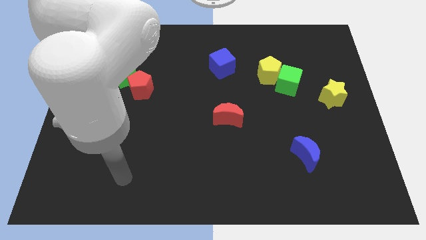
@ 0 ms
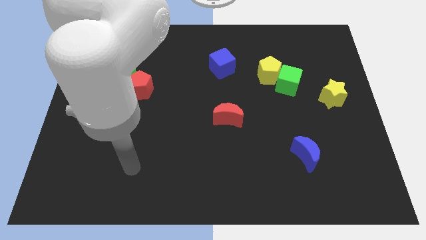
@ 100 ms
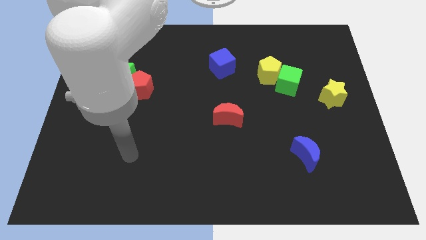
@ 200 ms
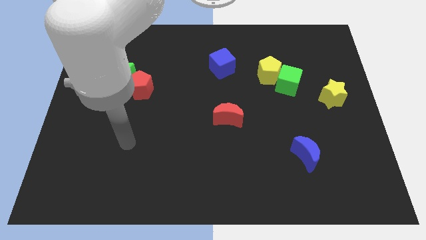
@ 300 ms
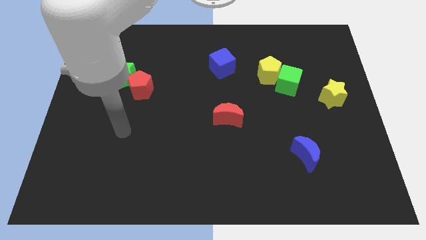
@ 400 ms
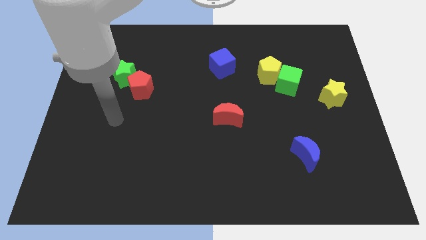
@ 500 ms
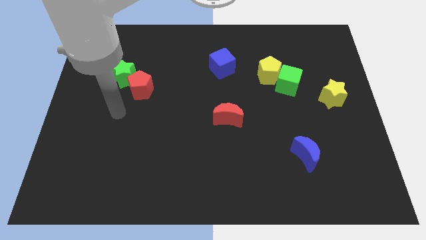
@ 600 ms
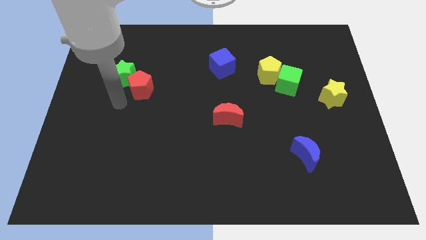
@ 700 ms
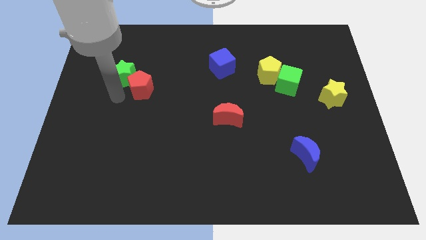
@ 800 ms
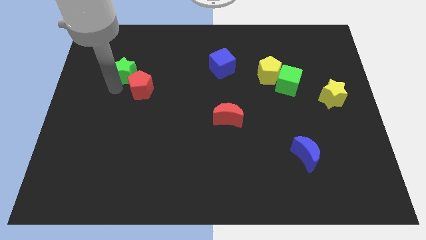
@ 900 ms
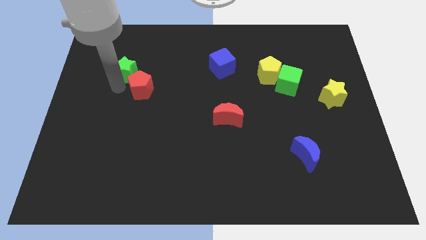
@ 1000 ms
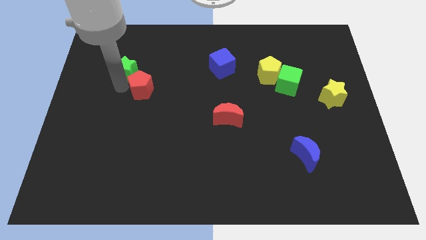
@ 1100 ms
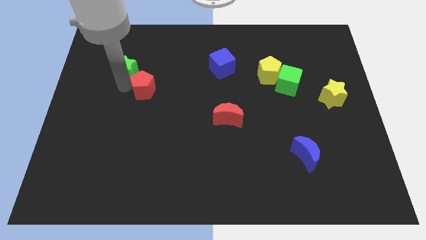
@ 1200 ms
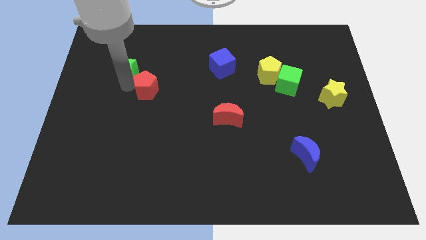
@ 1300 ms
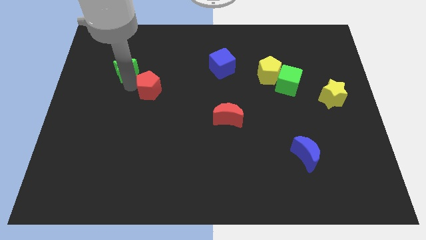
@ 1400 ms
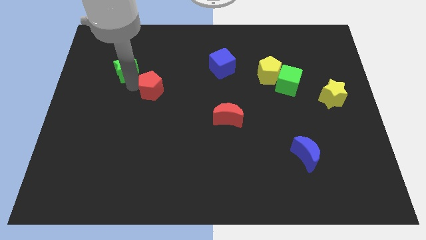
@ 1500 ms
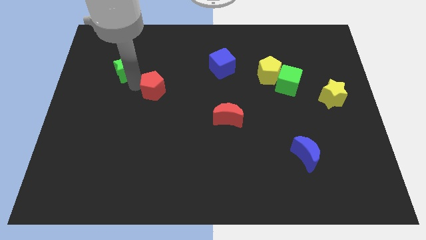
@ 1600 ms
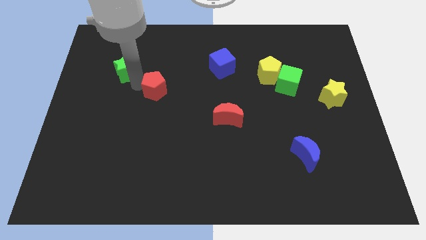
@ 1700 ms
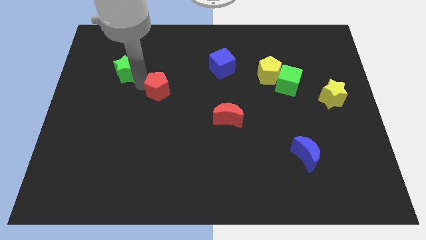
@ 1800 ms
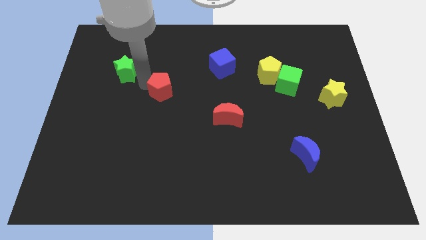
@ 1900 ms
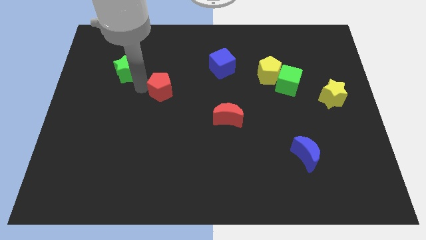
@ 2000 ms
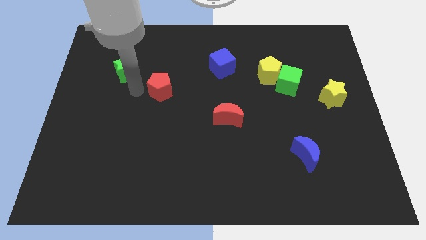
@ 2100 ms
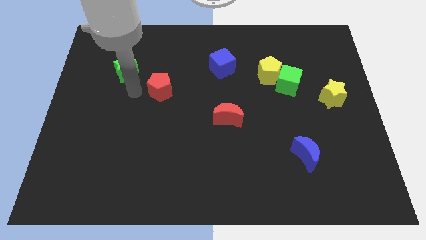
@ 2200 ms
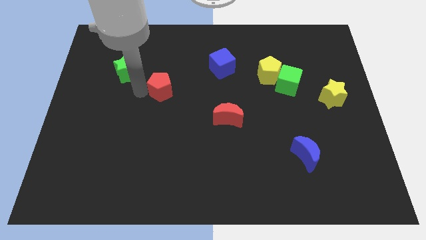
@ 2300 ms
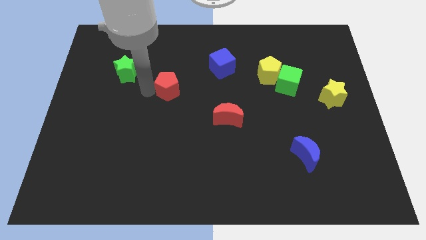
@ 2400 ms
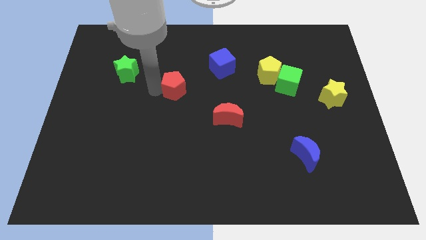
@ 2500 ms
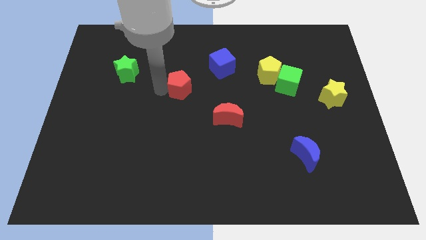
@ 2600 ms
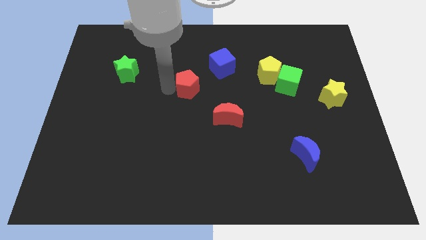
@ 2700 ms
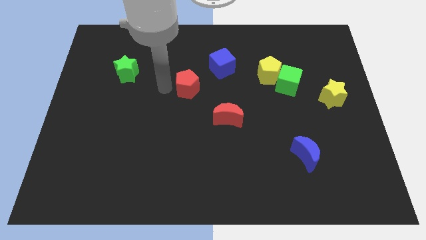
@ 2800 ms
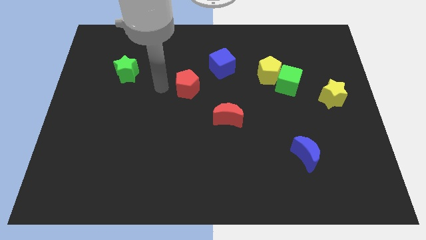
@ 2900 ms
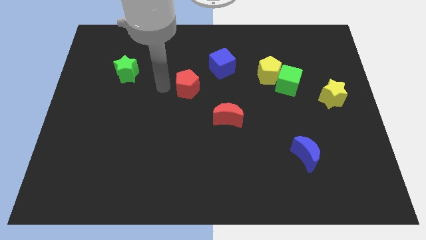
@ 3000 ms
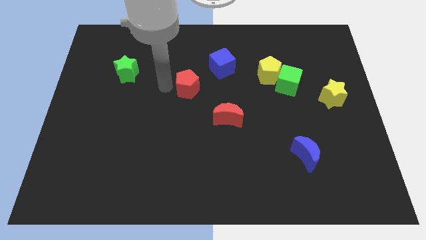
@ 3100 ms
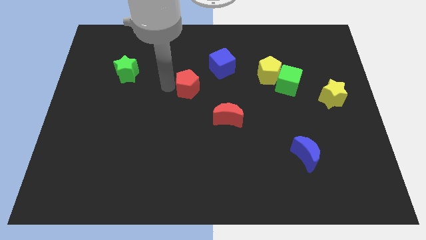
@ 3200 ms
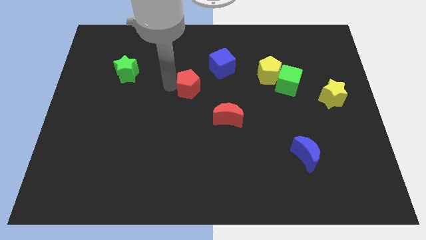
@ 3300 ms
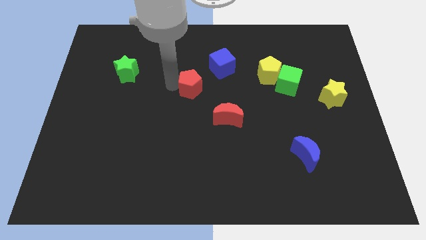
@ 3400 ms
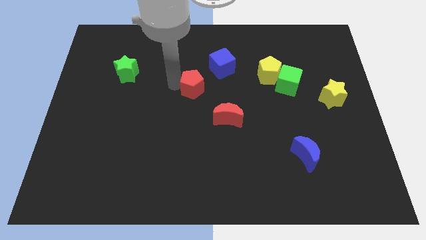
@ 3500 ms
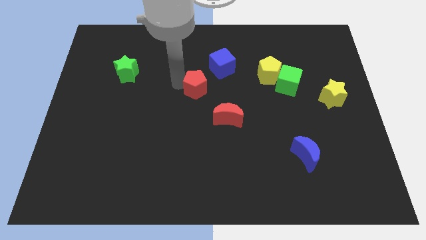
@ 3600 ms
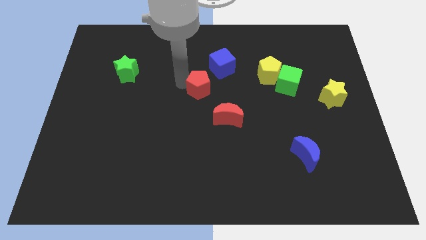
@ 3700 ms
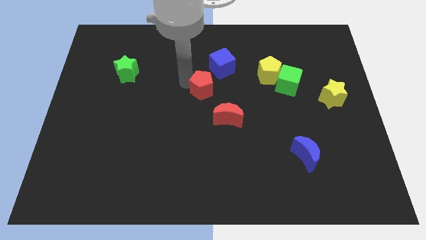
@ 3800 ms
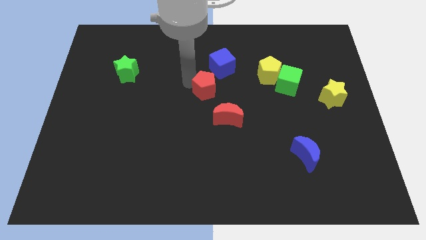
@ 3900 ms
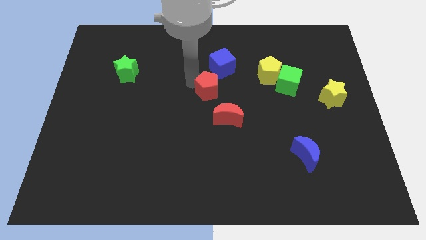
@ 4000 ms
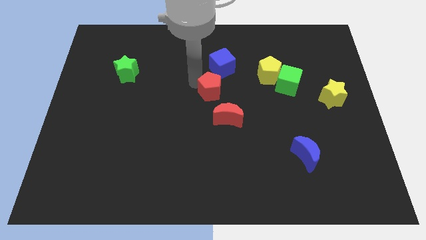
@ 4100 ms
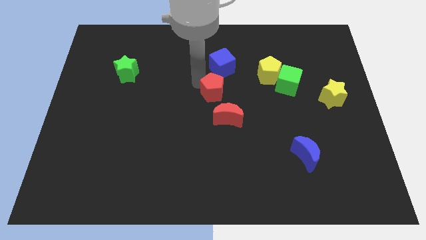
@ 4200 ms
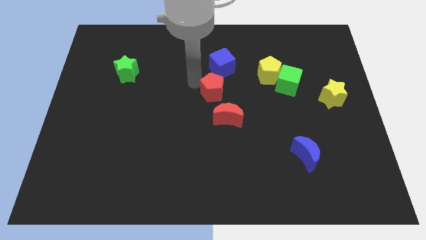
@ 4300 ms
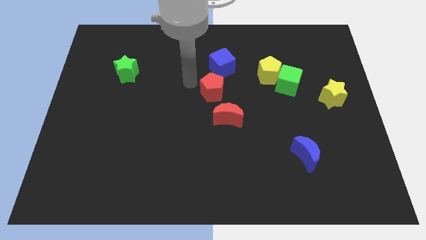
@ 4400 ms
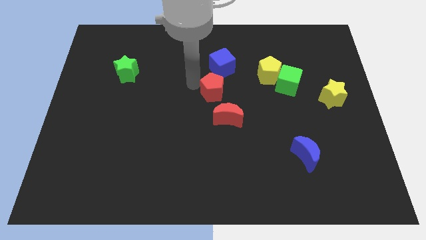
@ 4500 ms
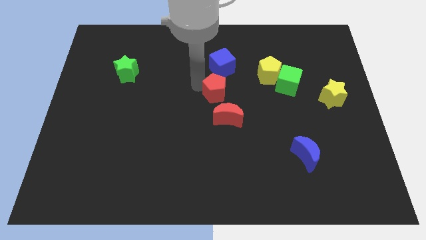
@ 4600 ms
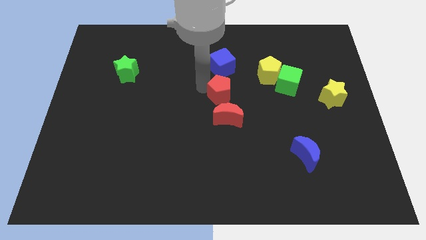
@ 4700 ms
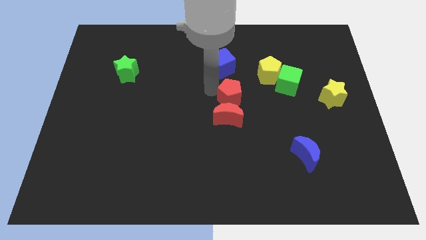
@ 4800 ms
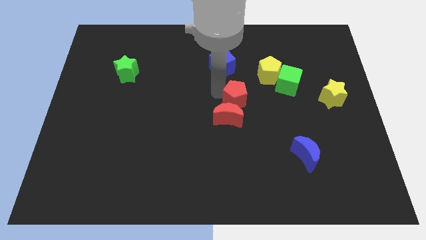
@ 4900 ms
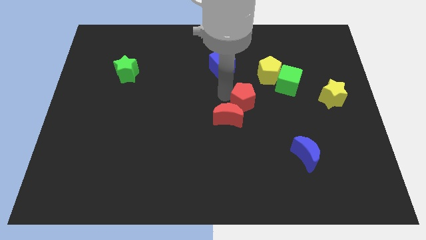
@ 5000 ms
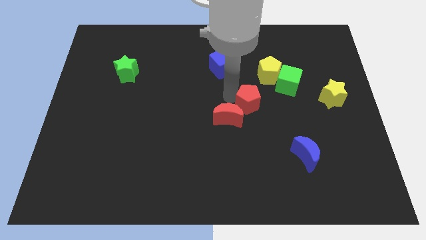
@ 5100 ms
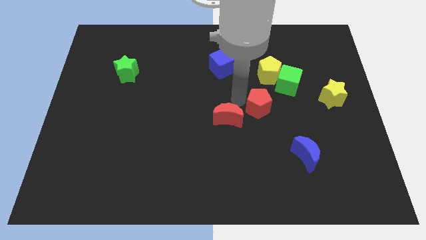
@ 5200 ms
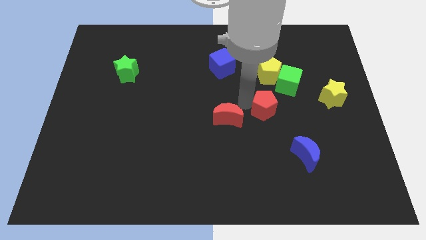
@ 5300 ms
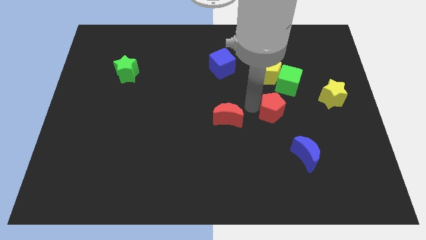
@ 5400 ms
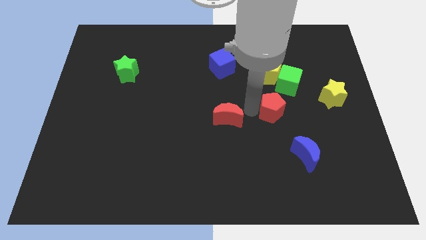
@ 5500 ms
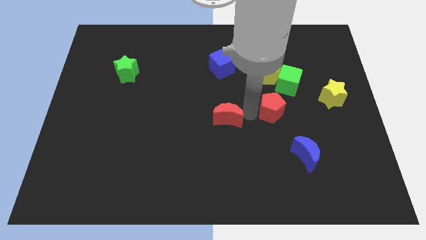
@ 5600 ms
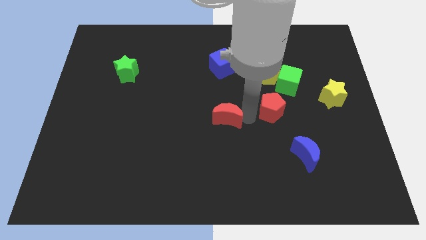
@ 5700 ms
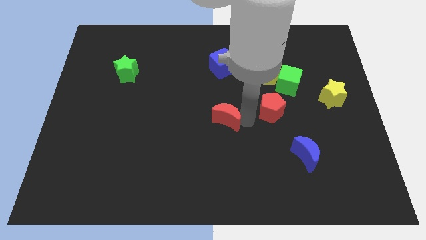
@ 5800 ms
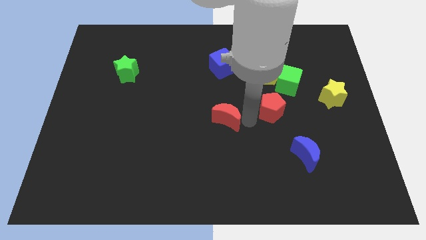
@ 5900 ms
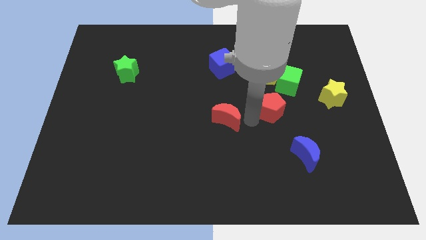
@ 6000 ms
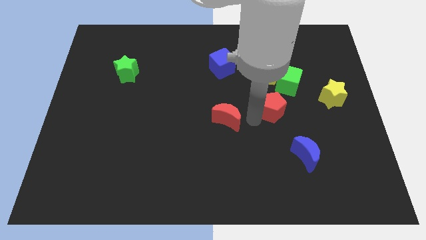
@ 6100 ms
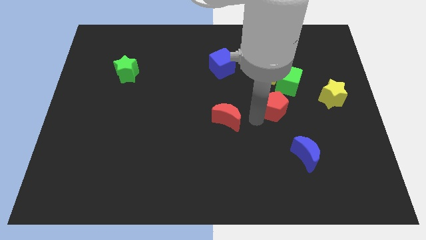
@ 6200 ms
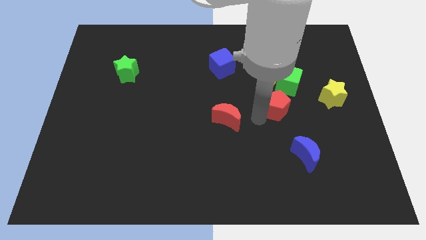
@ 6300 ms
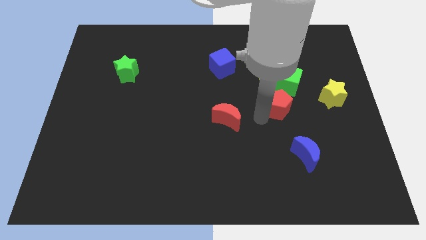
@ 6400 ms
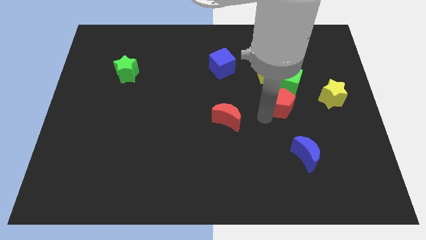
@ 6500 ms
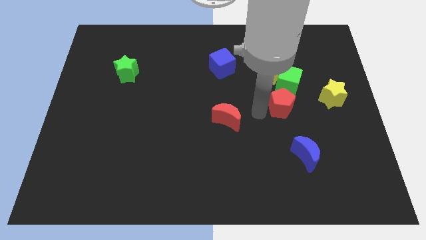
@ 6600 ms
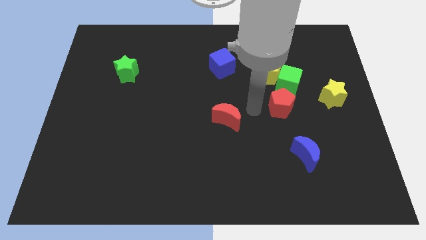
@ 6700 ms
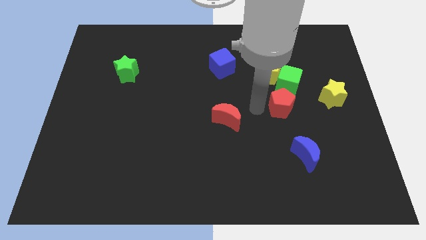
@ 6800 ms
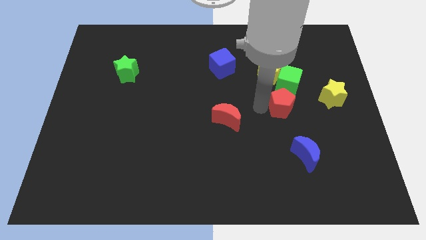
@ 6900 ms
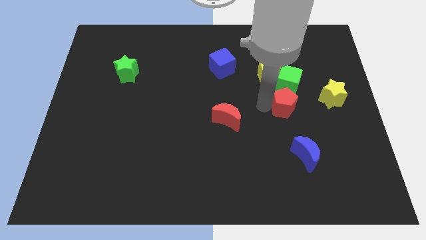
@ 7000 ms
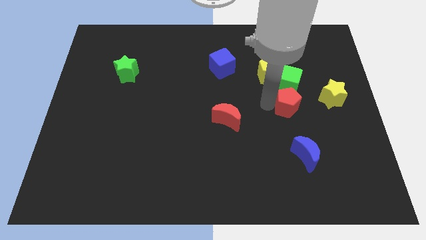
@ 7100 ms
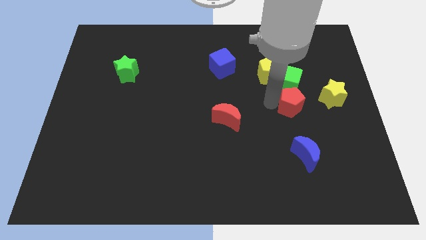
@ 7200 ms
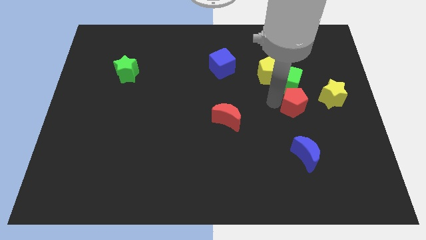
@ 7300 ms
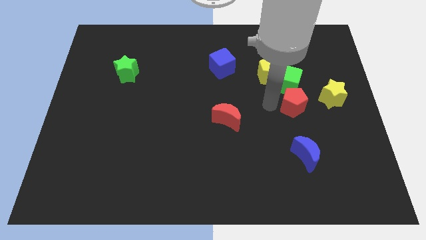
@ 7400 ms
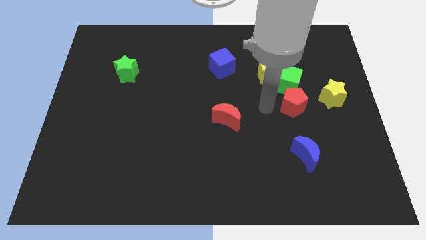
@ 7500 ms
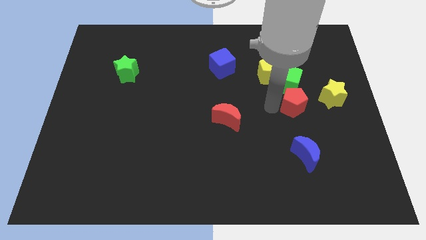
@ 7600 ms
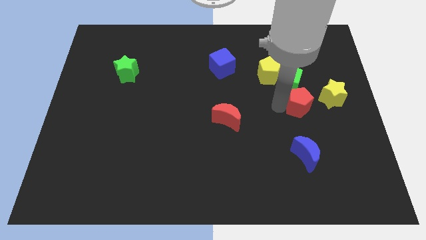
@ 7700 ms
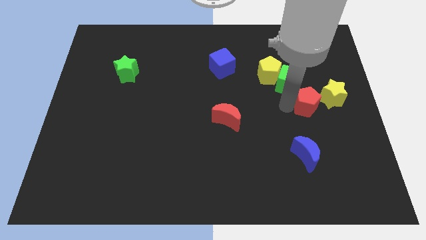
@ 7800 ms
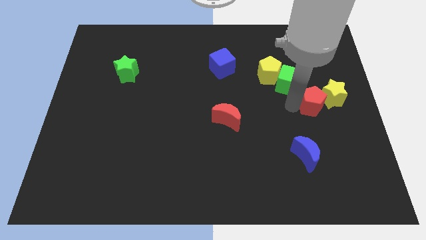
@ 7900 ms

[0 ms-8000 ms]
move the red pentagon towards the yellow star
